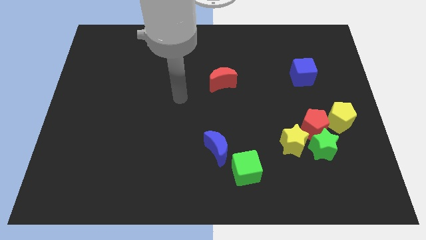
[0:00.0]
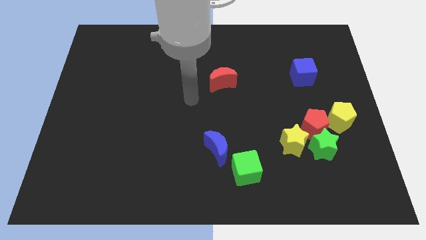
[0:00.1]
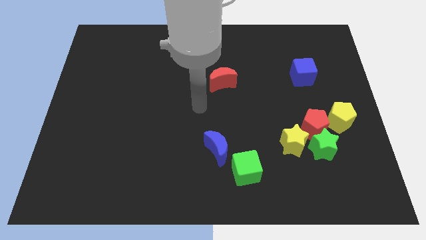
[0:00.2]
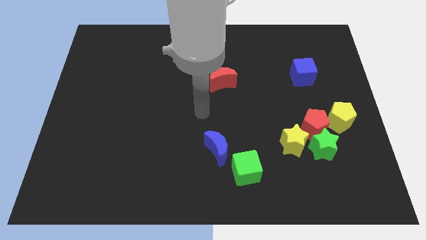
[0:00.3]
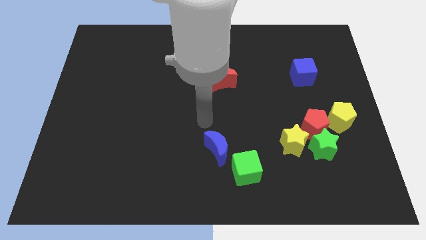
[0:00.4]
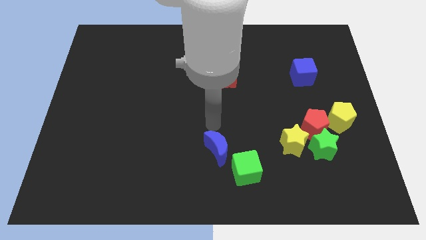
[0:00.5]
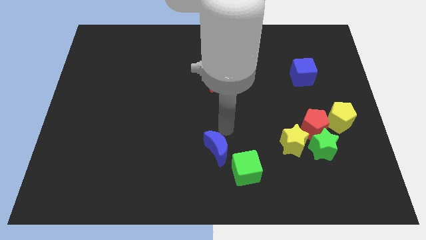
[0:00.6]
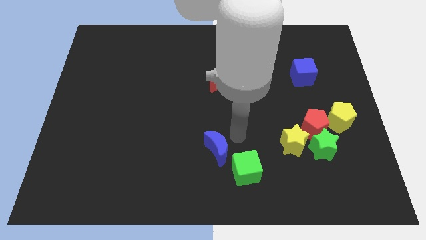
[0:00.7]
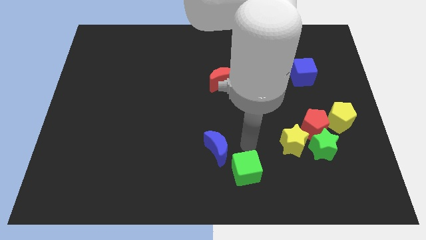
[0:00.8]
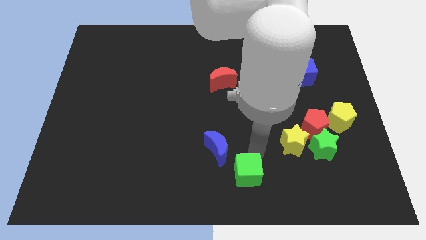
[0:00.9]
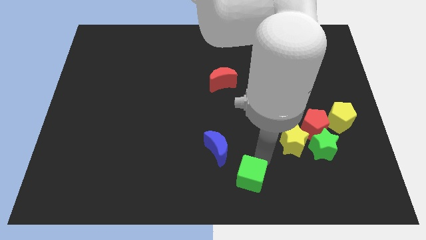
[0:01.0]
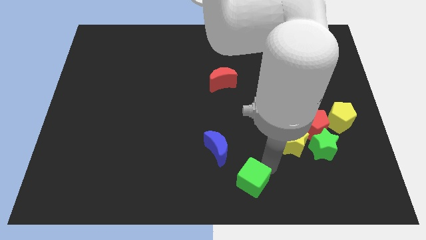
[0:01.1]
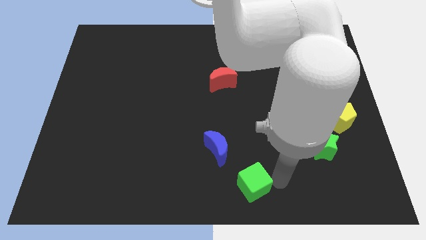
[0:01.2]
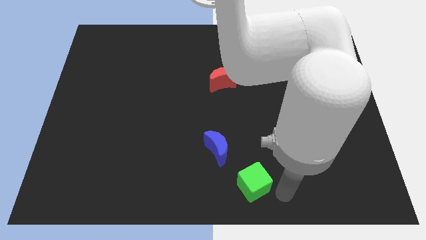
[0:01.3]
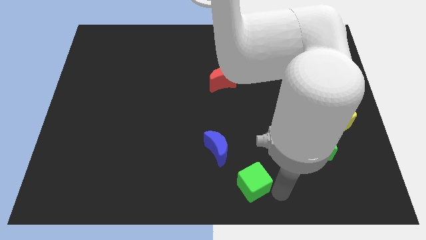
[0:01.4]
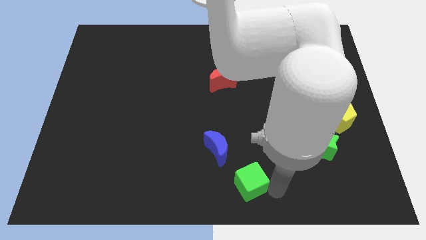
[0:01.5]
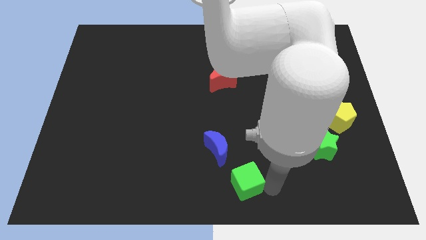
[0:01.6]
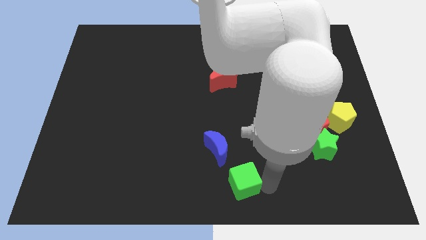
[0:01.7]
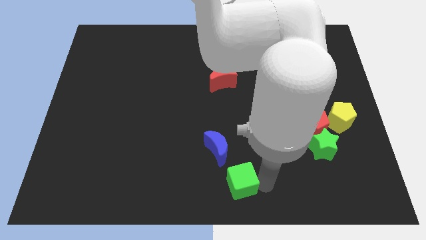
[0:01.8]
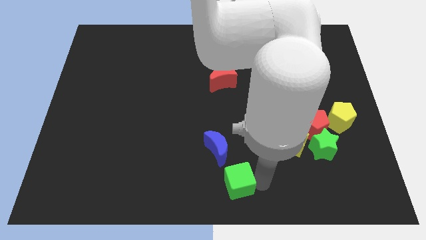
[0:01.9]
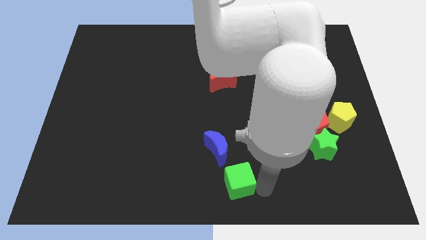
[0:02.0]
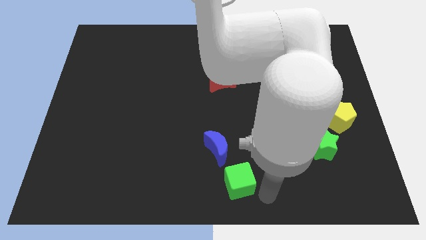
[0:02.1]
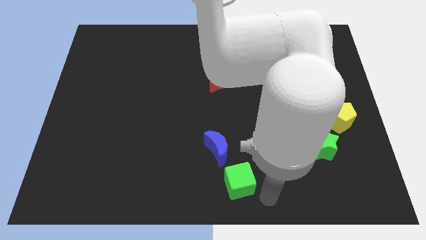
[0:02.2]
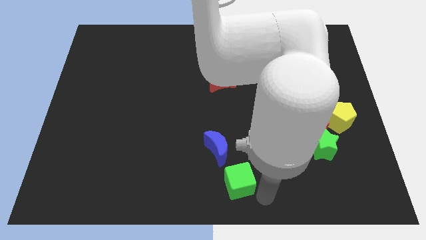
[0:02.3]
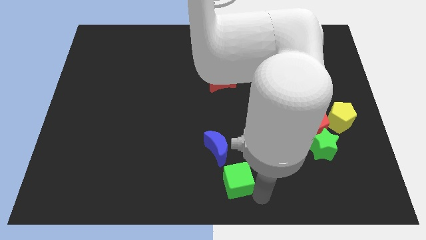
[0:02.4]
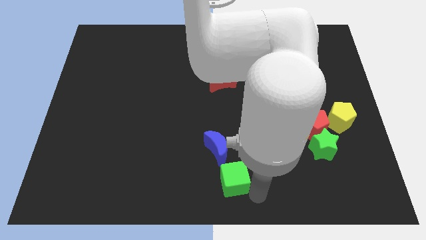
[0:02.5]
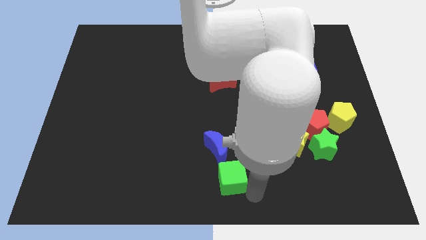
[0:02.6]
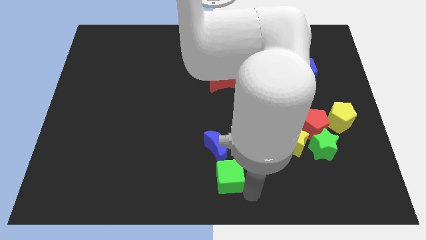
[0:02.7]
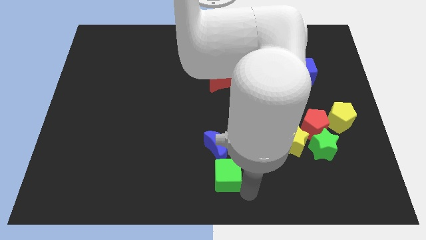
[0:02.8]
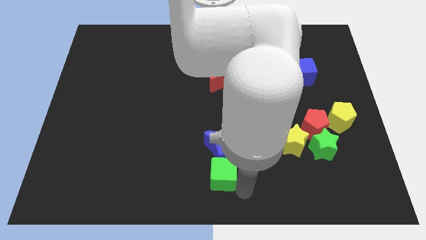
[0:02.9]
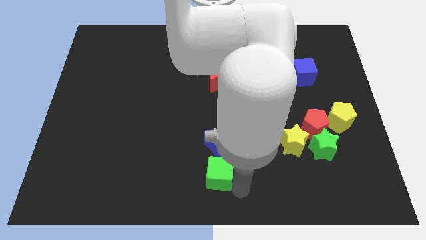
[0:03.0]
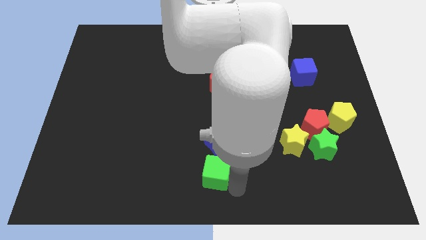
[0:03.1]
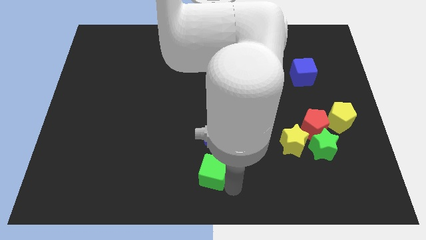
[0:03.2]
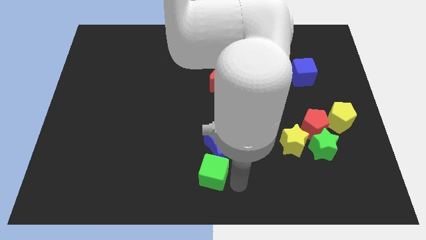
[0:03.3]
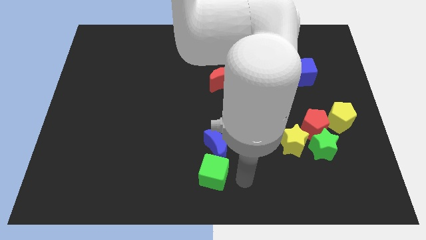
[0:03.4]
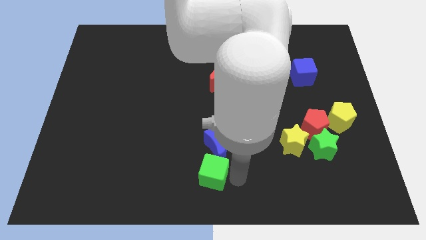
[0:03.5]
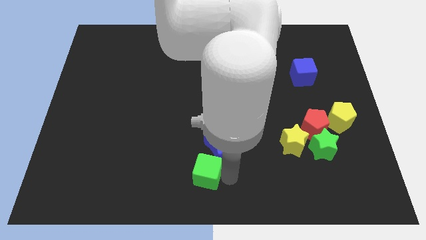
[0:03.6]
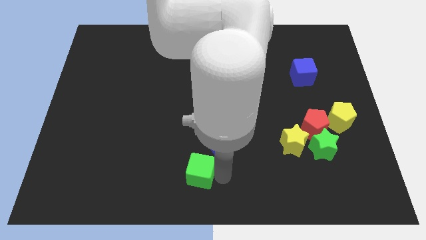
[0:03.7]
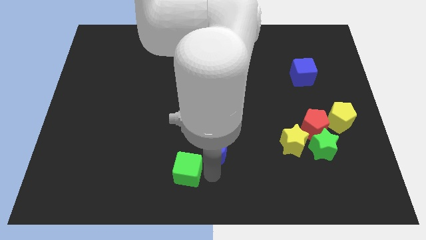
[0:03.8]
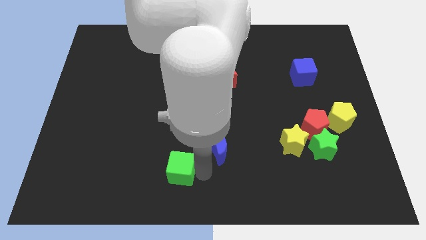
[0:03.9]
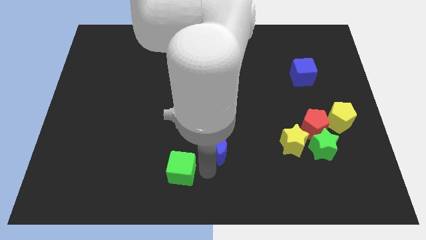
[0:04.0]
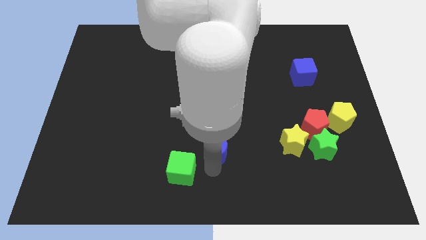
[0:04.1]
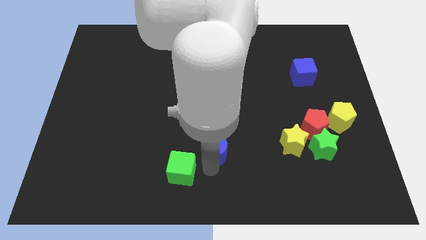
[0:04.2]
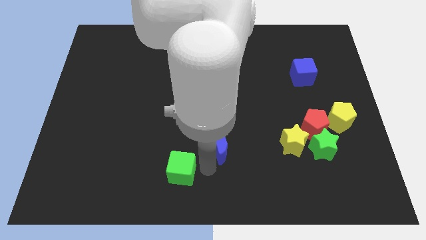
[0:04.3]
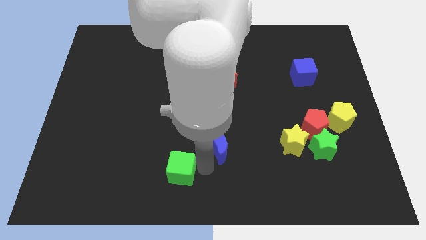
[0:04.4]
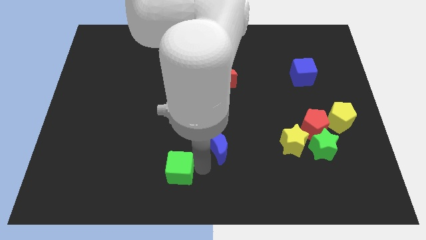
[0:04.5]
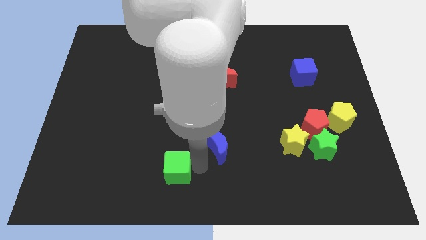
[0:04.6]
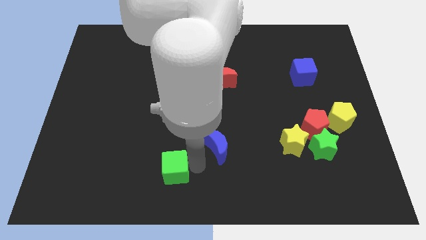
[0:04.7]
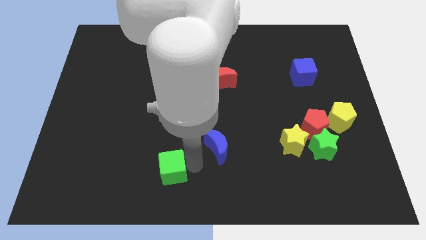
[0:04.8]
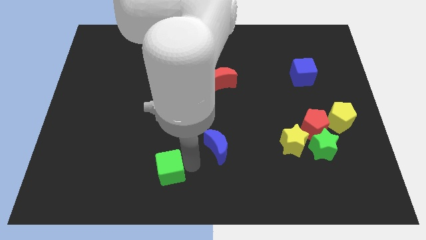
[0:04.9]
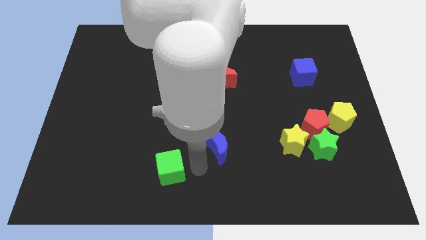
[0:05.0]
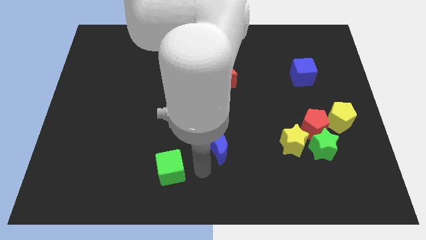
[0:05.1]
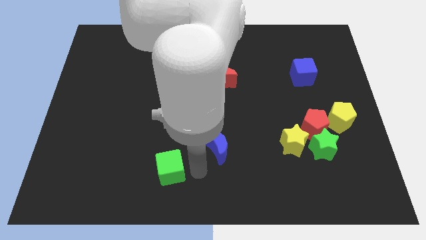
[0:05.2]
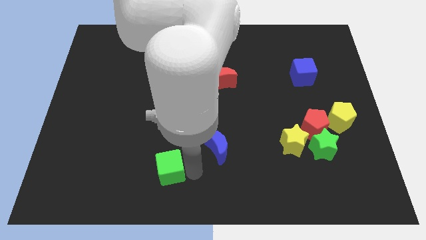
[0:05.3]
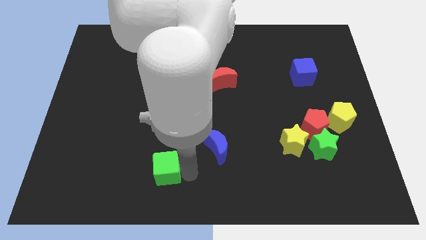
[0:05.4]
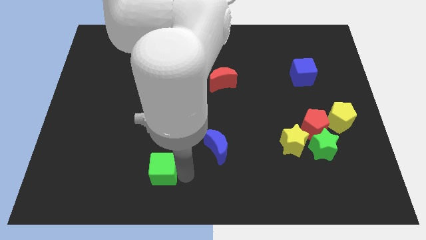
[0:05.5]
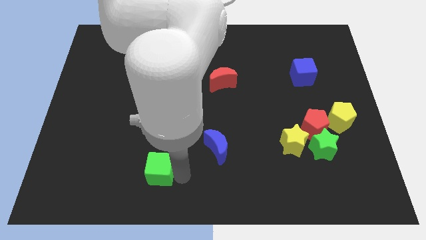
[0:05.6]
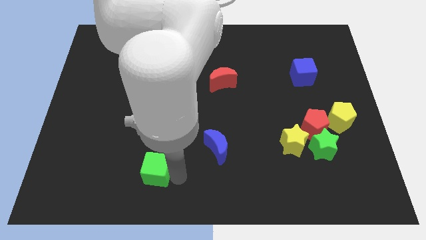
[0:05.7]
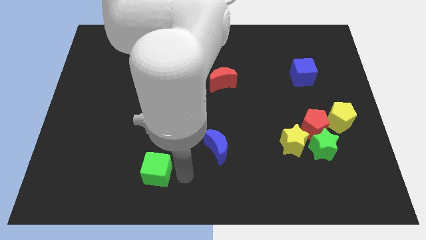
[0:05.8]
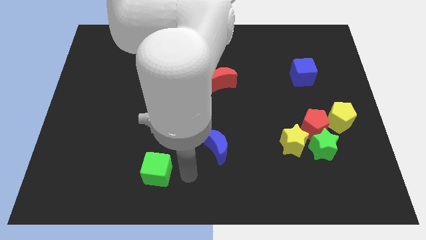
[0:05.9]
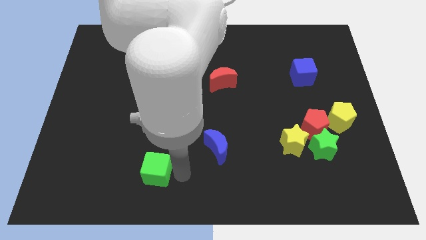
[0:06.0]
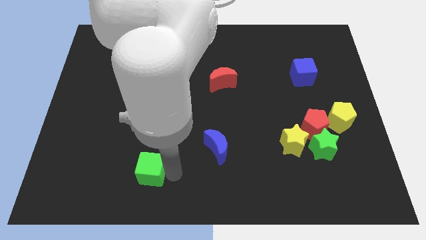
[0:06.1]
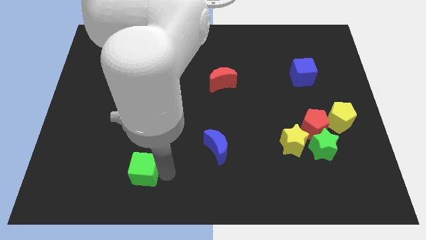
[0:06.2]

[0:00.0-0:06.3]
push the green cube to the left

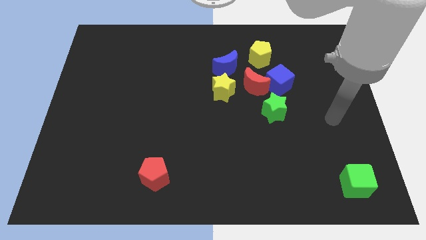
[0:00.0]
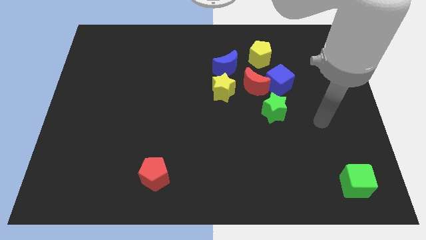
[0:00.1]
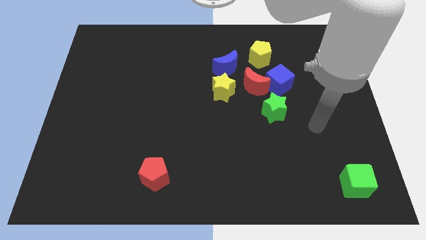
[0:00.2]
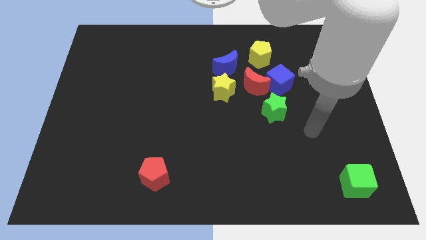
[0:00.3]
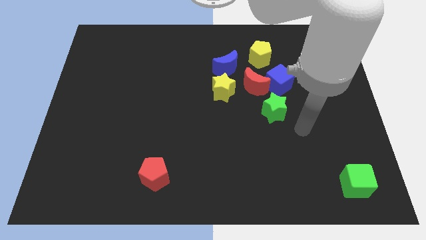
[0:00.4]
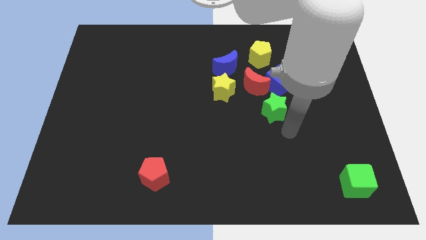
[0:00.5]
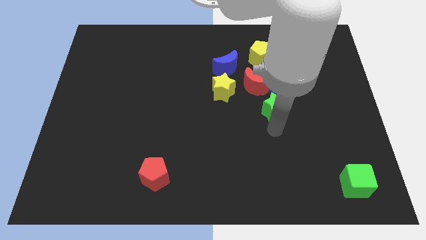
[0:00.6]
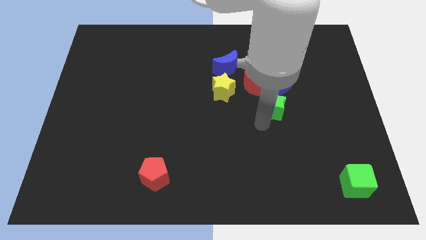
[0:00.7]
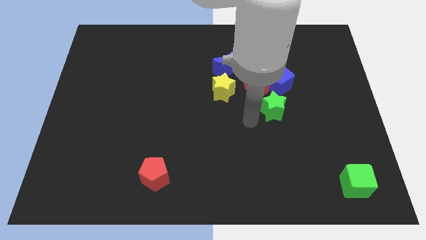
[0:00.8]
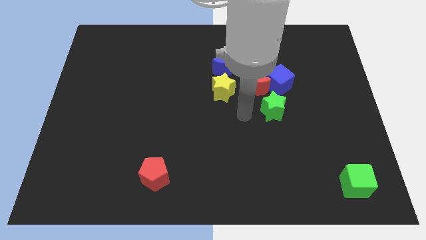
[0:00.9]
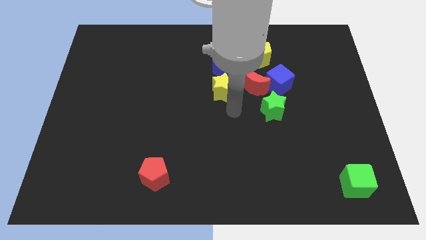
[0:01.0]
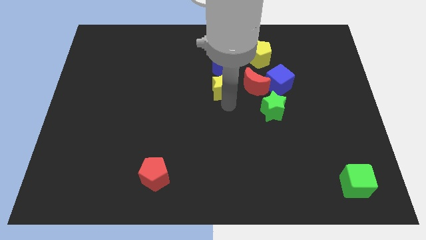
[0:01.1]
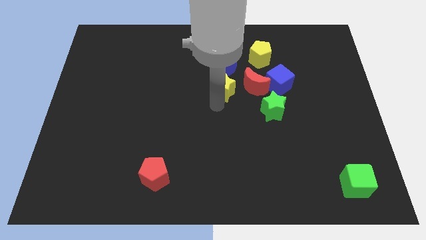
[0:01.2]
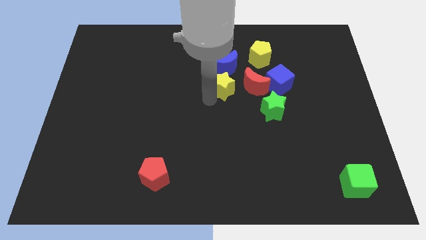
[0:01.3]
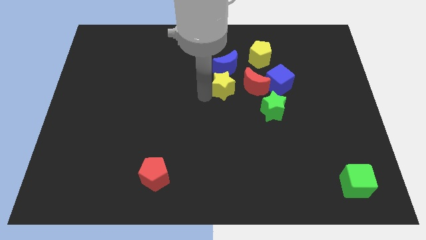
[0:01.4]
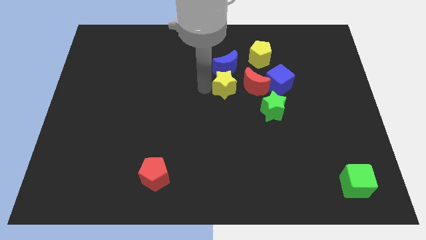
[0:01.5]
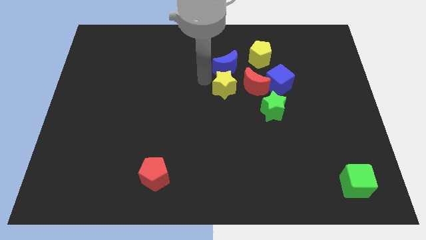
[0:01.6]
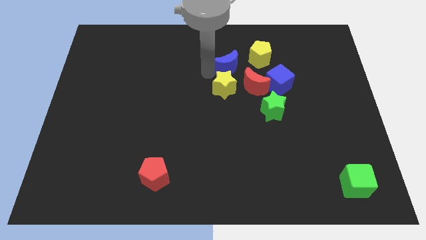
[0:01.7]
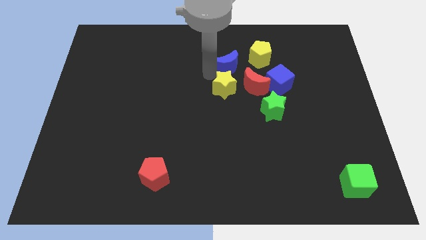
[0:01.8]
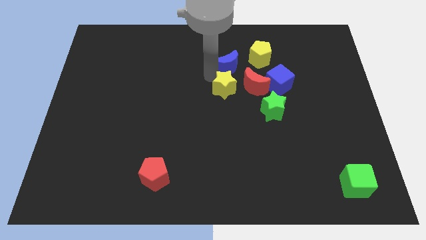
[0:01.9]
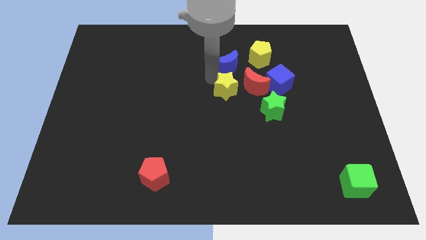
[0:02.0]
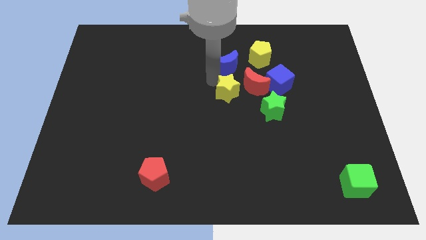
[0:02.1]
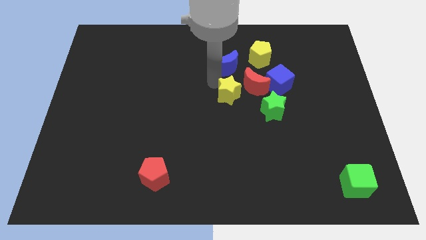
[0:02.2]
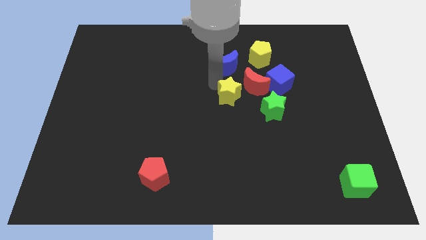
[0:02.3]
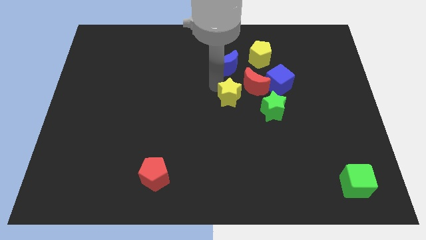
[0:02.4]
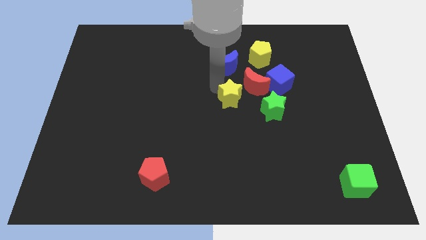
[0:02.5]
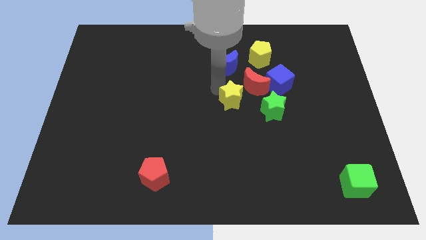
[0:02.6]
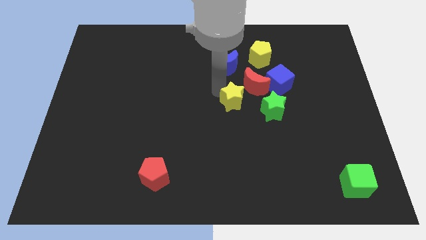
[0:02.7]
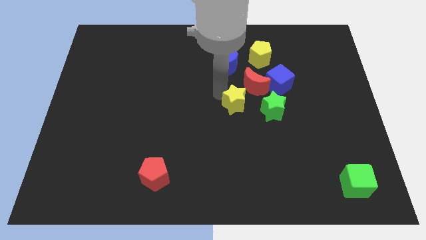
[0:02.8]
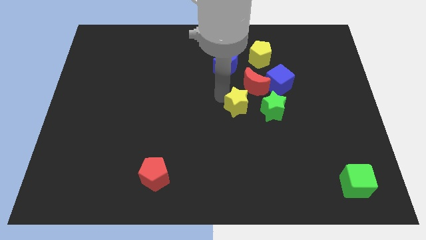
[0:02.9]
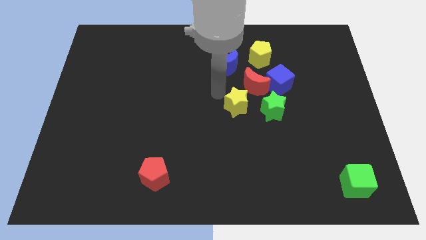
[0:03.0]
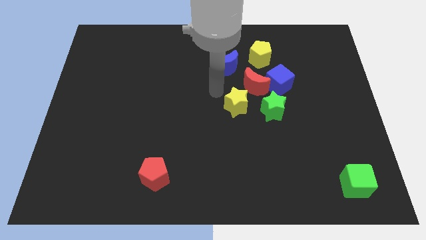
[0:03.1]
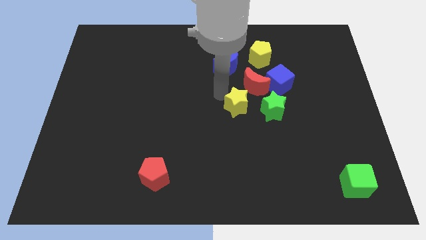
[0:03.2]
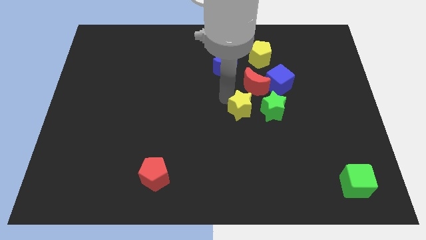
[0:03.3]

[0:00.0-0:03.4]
slide the yellow star a little down and to the right
